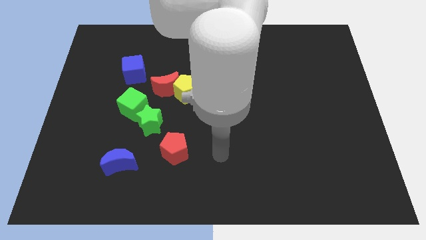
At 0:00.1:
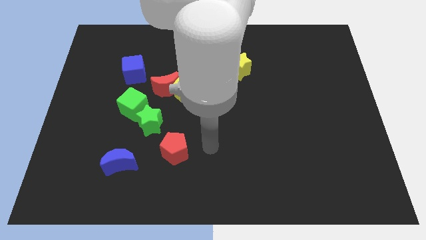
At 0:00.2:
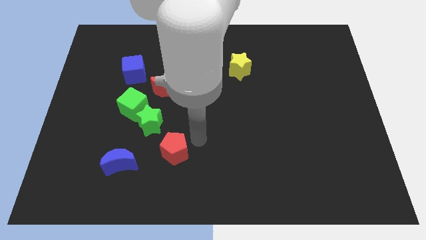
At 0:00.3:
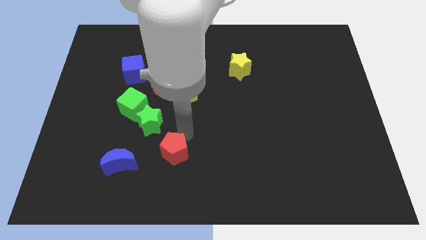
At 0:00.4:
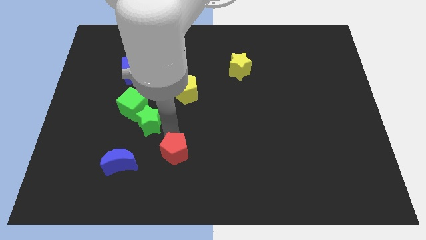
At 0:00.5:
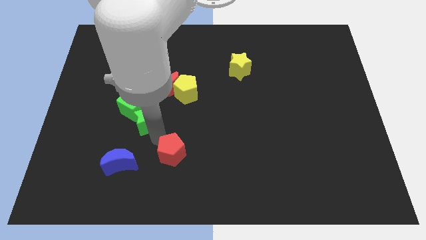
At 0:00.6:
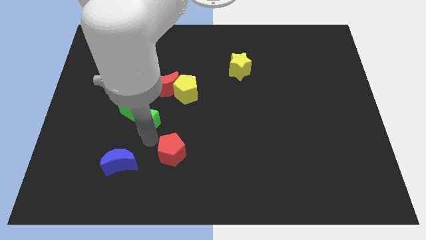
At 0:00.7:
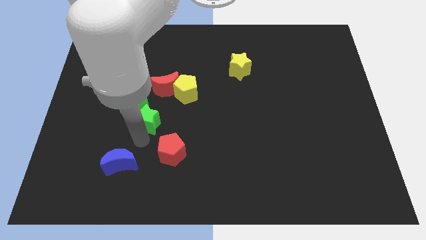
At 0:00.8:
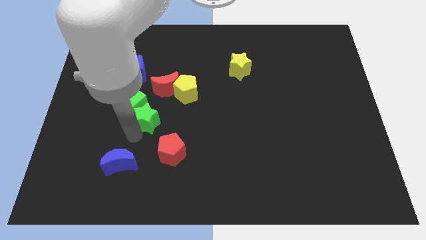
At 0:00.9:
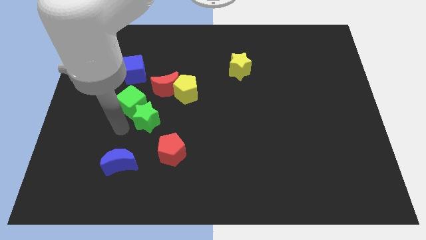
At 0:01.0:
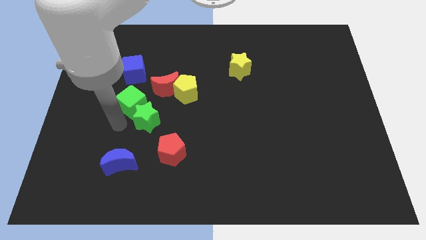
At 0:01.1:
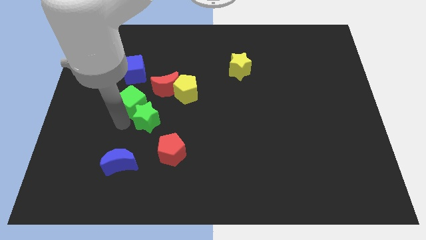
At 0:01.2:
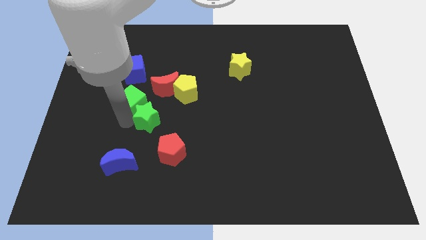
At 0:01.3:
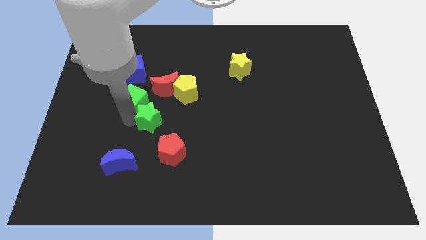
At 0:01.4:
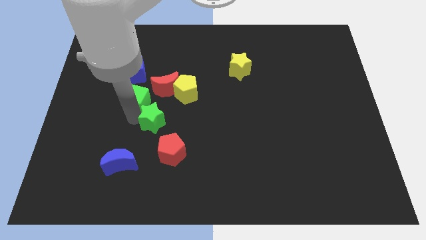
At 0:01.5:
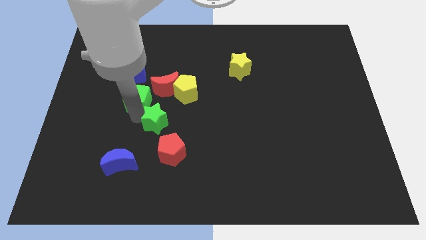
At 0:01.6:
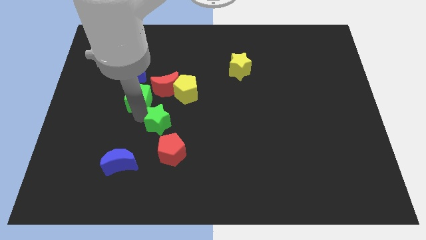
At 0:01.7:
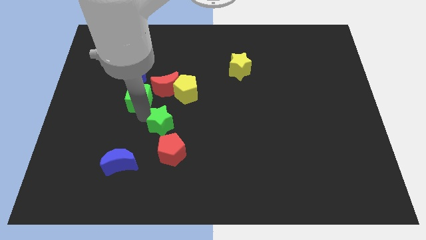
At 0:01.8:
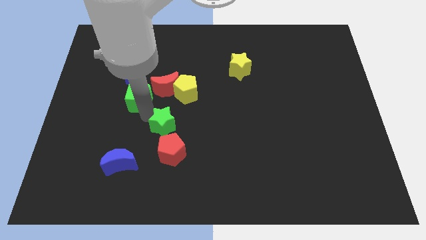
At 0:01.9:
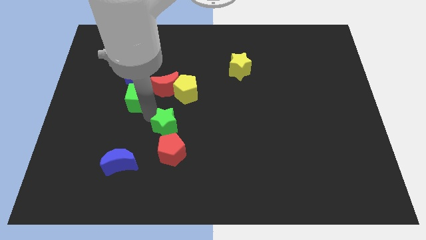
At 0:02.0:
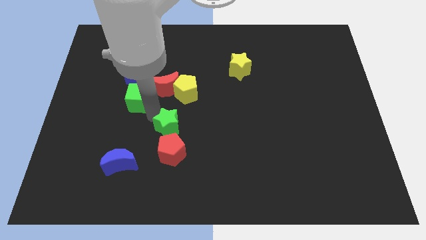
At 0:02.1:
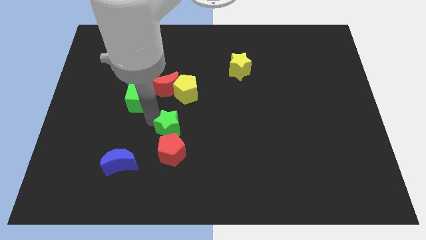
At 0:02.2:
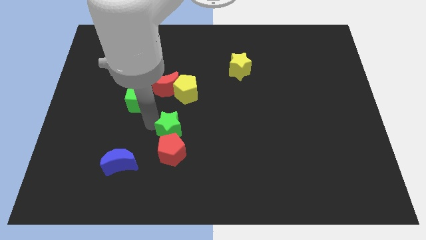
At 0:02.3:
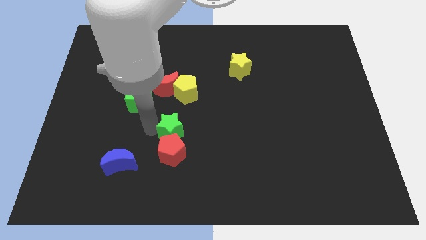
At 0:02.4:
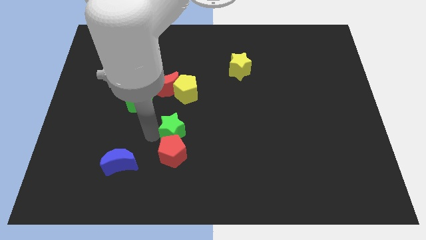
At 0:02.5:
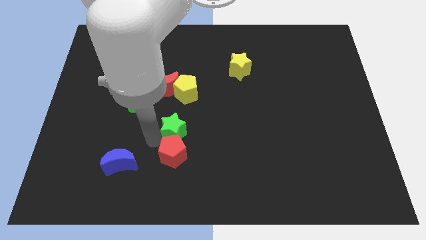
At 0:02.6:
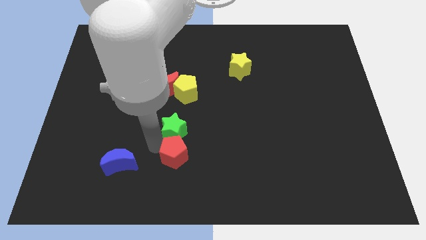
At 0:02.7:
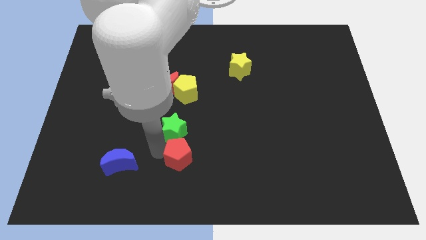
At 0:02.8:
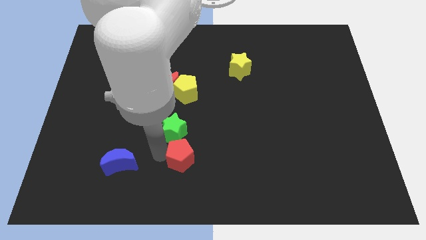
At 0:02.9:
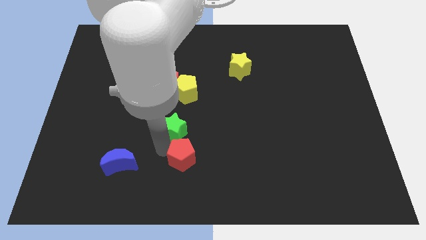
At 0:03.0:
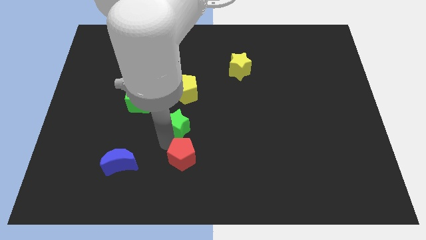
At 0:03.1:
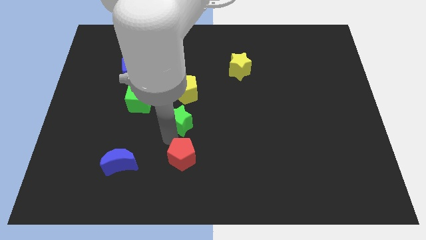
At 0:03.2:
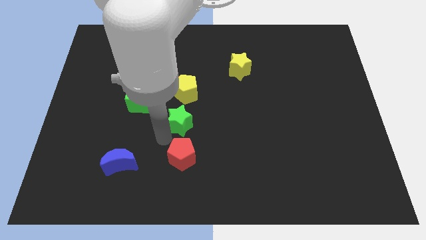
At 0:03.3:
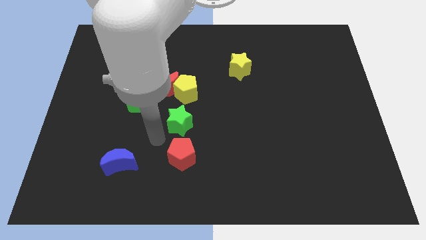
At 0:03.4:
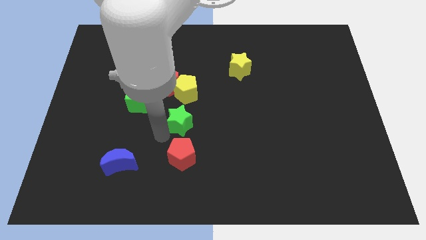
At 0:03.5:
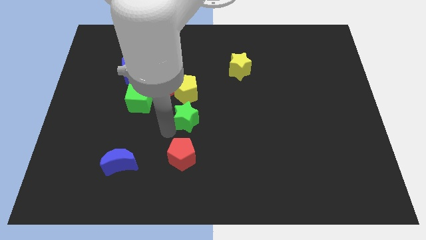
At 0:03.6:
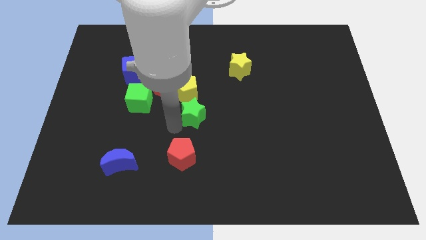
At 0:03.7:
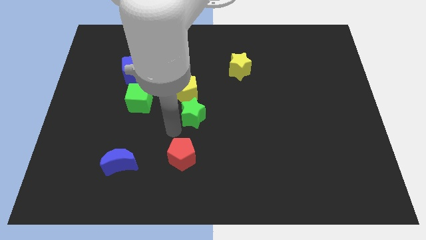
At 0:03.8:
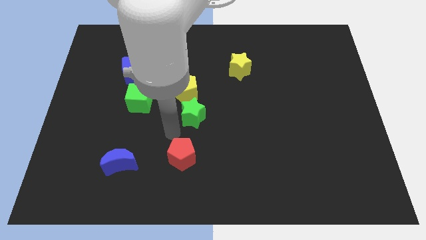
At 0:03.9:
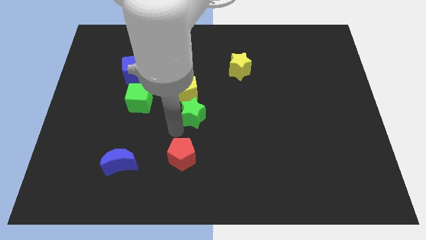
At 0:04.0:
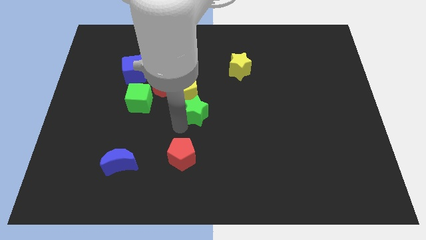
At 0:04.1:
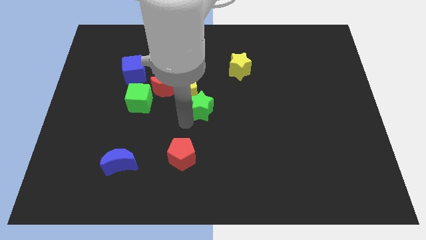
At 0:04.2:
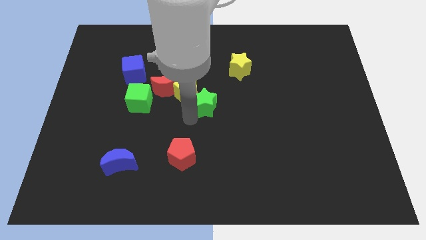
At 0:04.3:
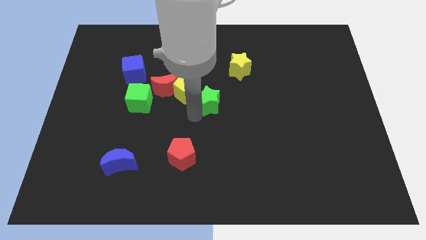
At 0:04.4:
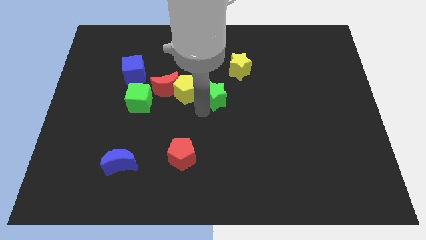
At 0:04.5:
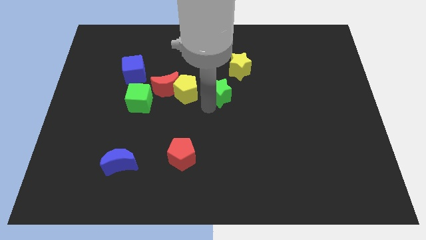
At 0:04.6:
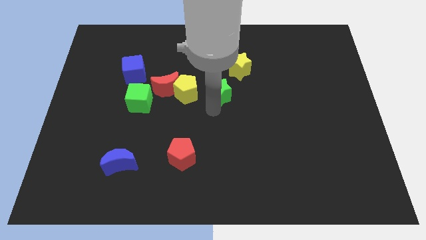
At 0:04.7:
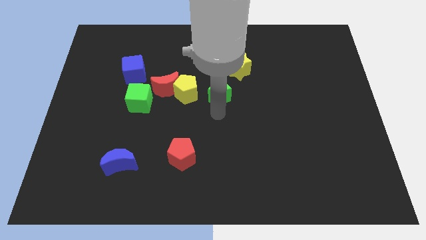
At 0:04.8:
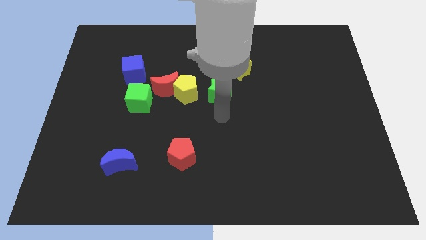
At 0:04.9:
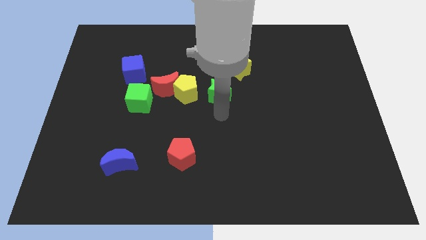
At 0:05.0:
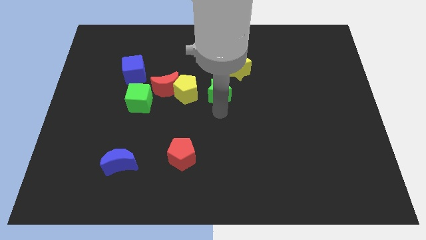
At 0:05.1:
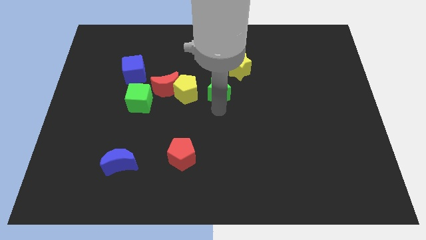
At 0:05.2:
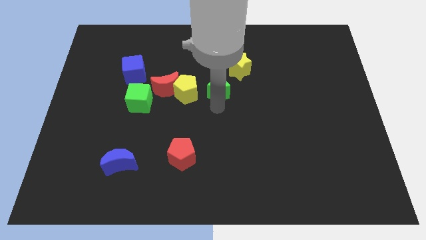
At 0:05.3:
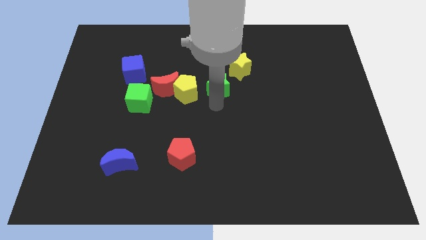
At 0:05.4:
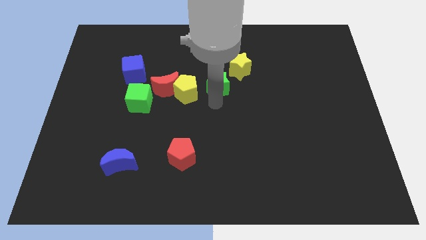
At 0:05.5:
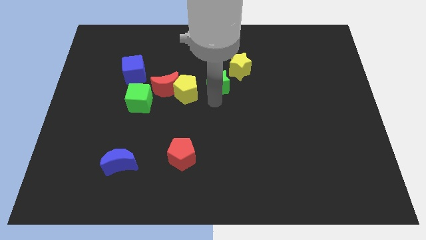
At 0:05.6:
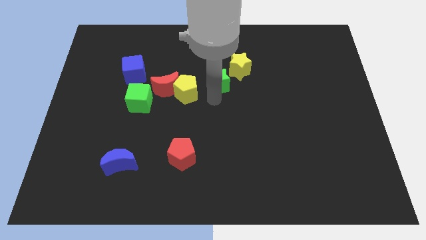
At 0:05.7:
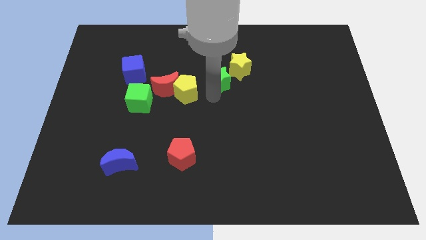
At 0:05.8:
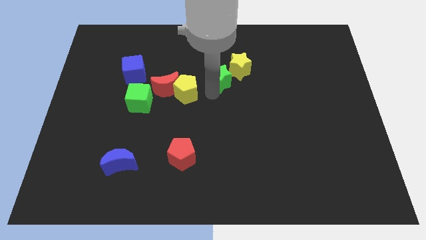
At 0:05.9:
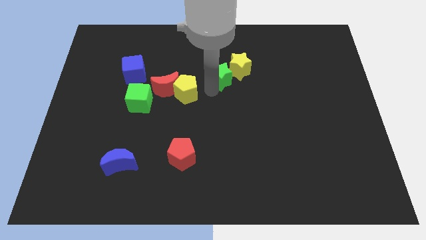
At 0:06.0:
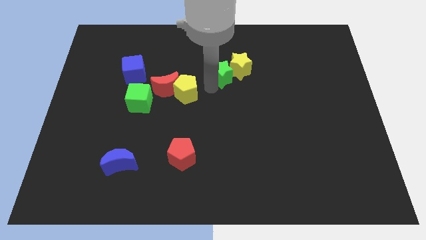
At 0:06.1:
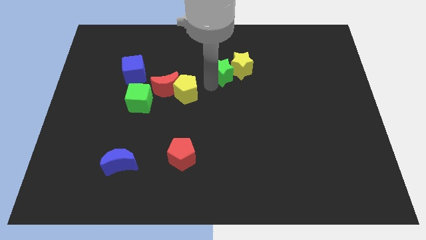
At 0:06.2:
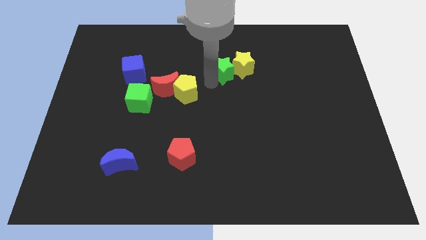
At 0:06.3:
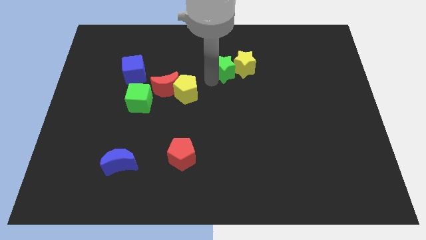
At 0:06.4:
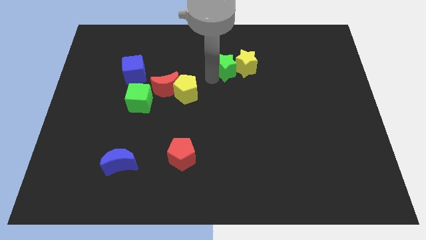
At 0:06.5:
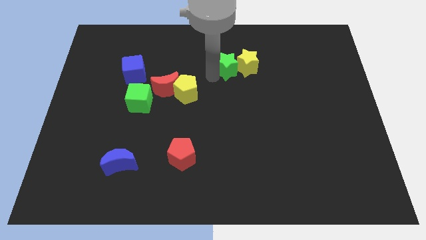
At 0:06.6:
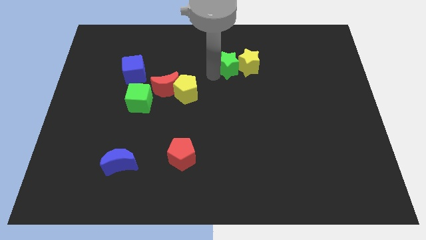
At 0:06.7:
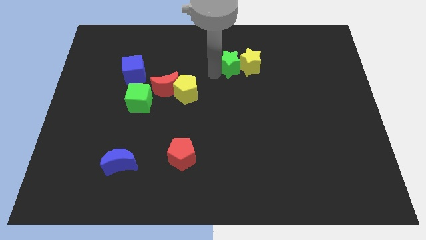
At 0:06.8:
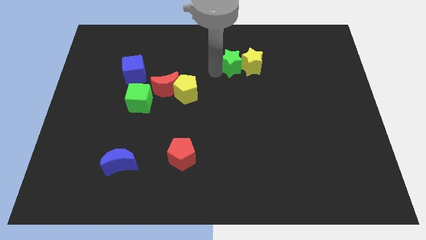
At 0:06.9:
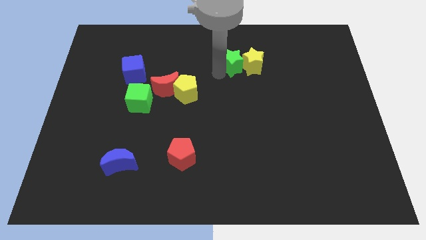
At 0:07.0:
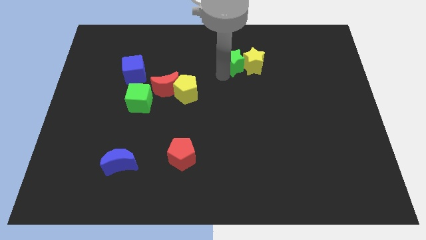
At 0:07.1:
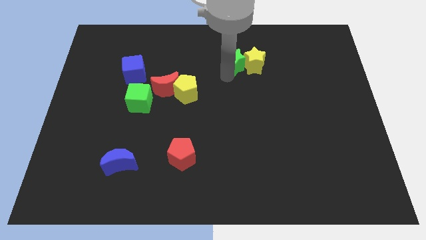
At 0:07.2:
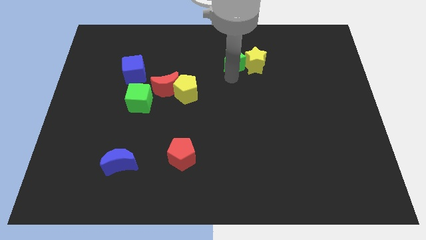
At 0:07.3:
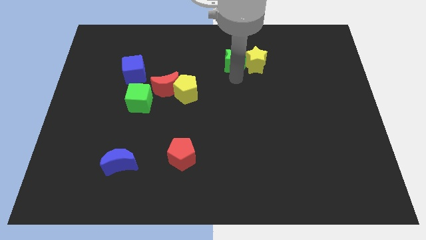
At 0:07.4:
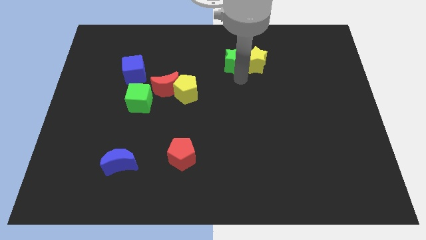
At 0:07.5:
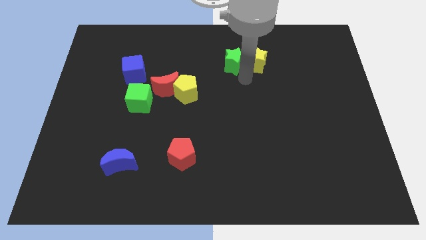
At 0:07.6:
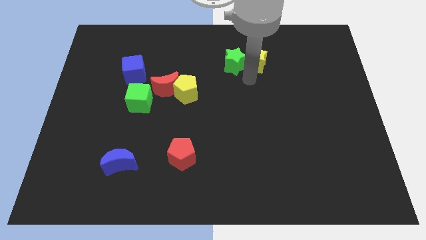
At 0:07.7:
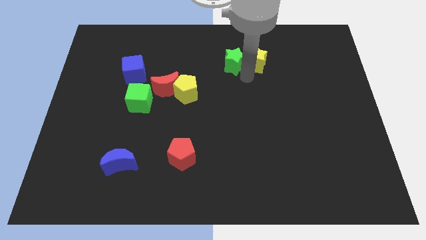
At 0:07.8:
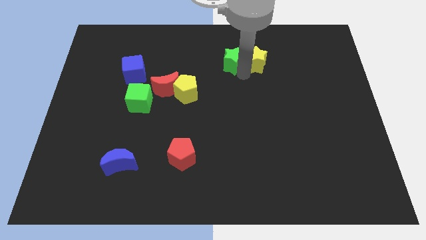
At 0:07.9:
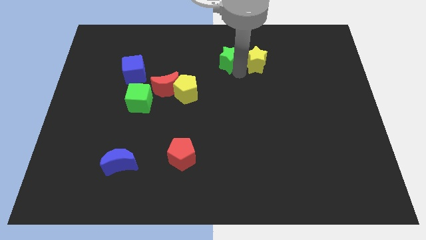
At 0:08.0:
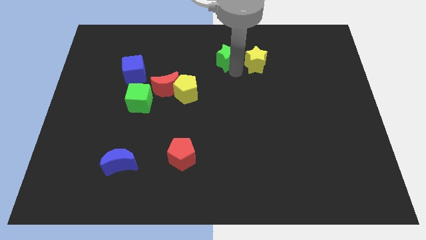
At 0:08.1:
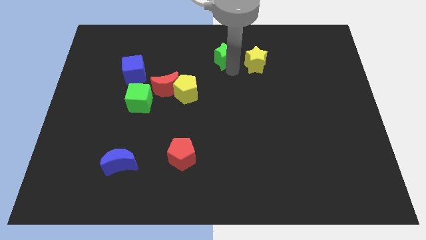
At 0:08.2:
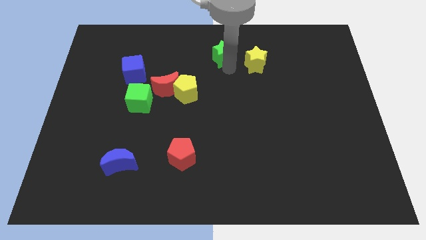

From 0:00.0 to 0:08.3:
slide the green star to the top
